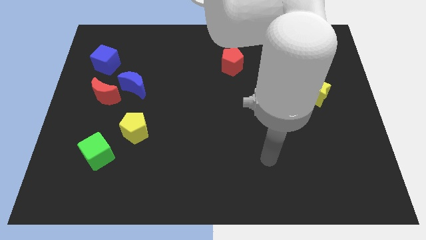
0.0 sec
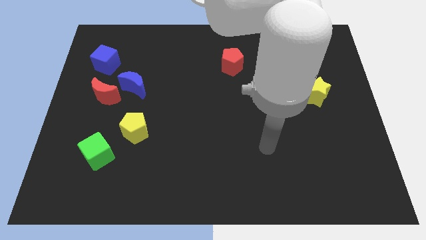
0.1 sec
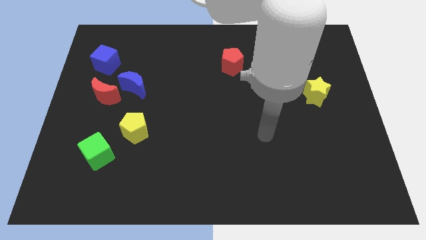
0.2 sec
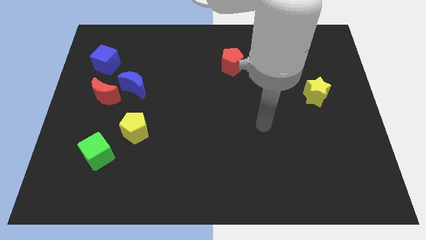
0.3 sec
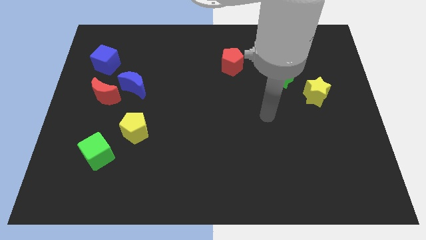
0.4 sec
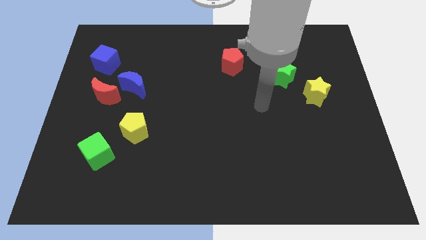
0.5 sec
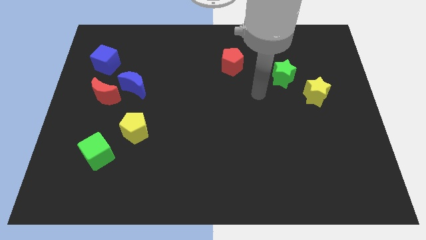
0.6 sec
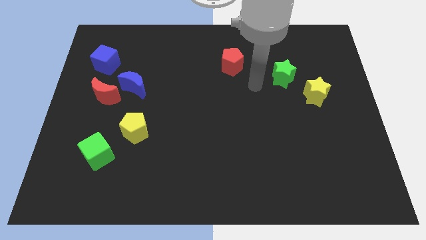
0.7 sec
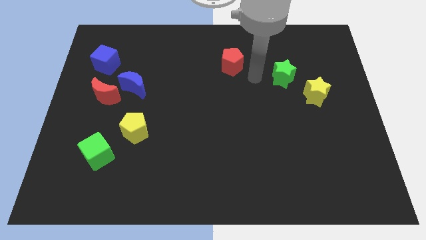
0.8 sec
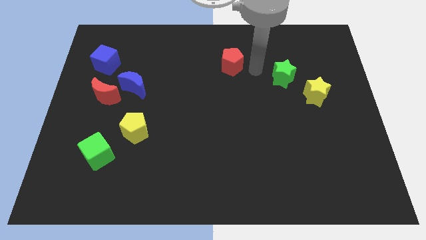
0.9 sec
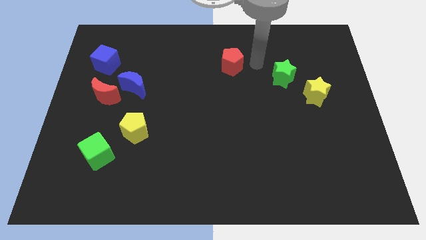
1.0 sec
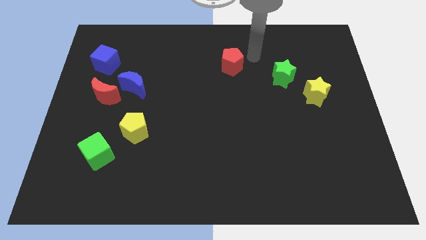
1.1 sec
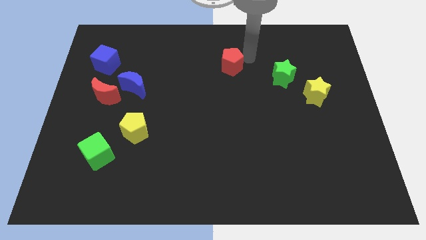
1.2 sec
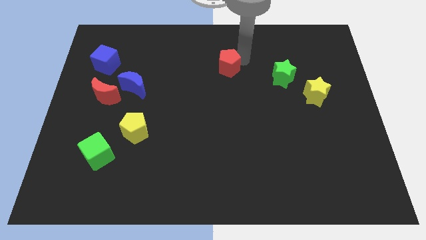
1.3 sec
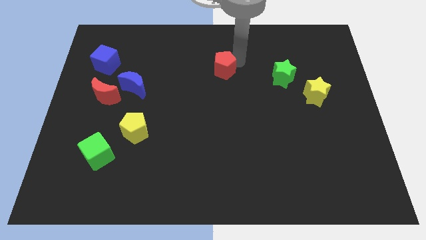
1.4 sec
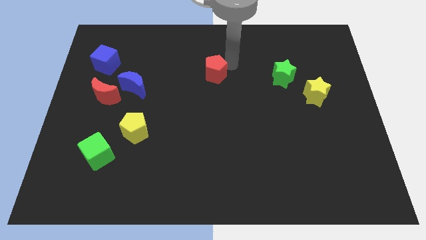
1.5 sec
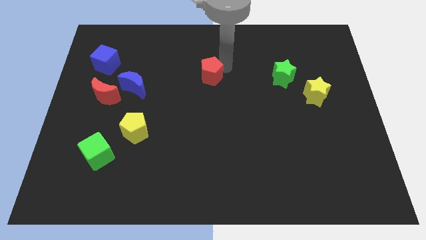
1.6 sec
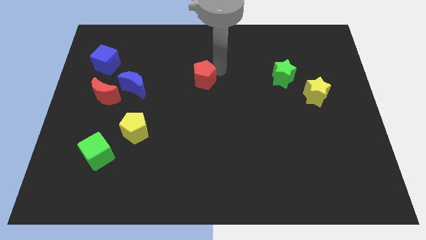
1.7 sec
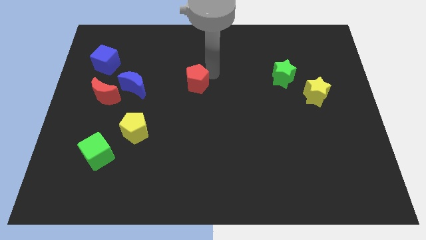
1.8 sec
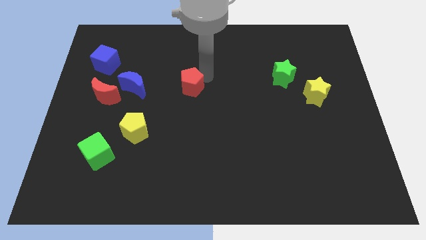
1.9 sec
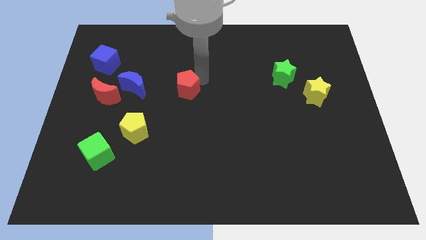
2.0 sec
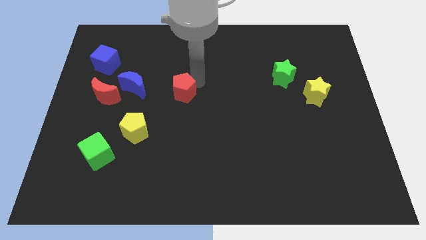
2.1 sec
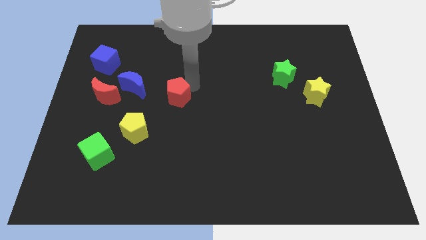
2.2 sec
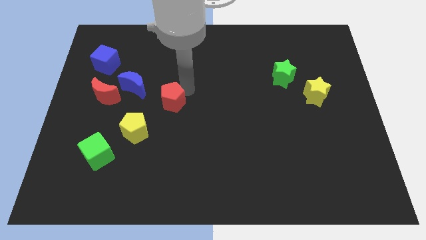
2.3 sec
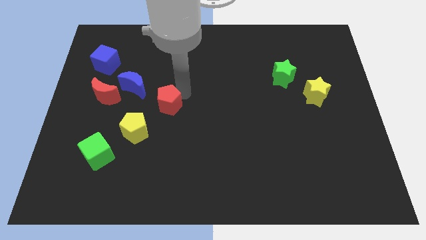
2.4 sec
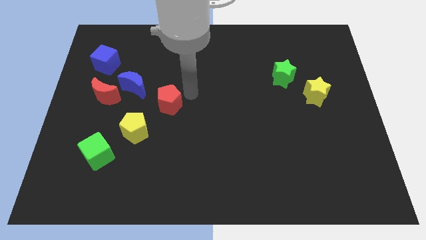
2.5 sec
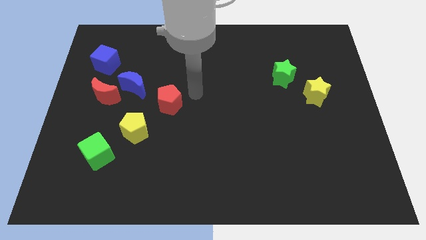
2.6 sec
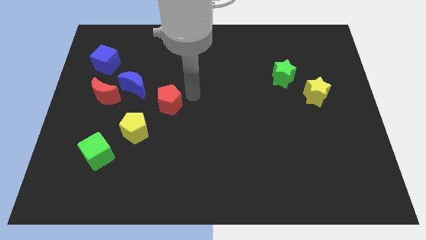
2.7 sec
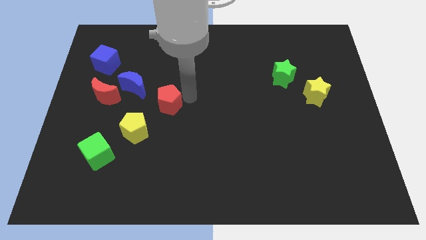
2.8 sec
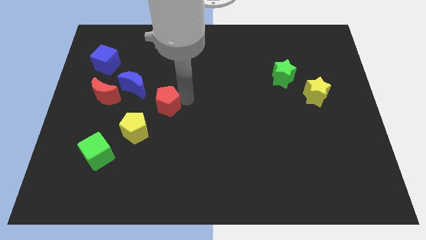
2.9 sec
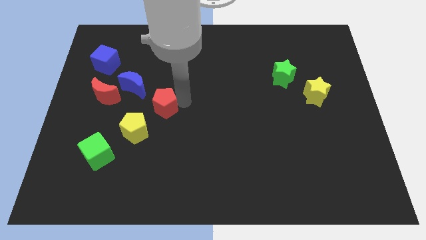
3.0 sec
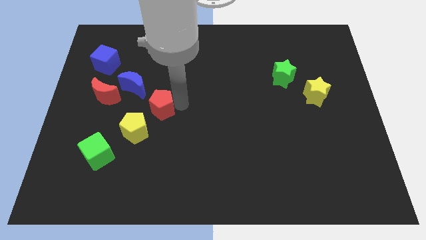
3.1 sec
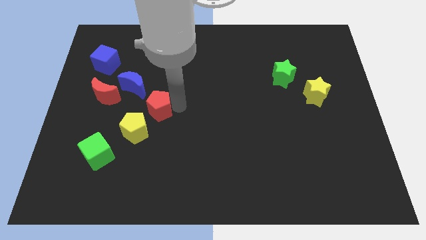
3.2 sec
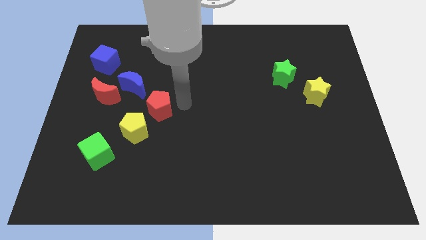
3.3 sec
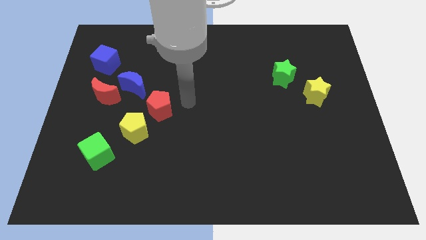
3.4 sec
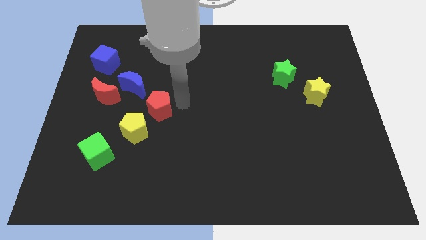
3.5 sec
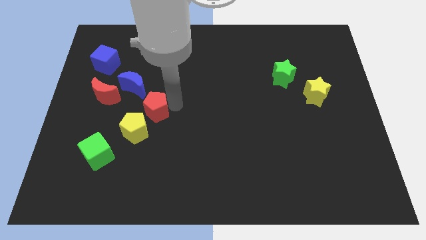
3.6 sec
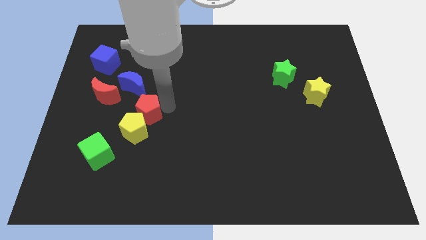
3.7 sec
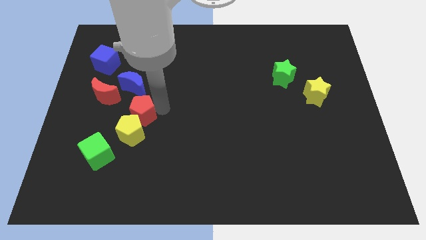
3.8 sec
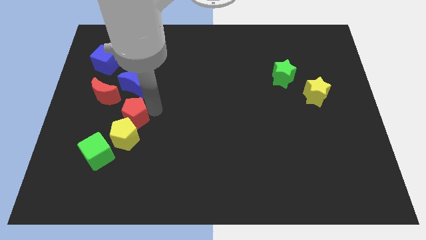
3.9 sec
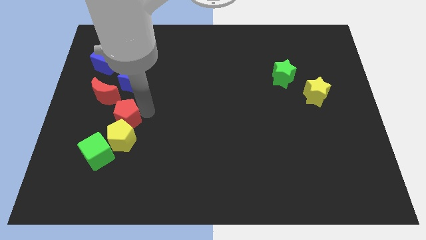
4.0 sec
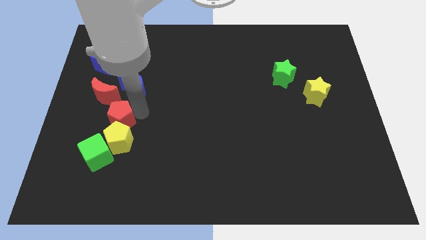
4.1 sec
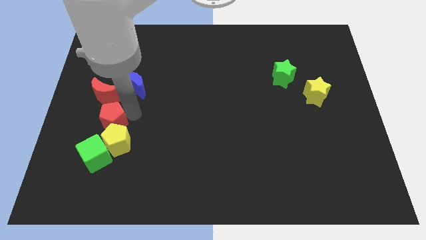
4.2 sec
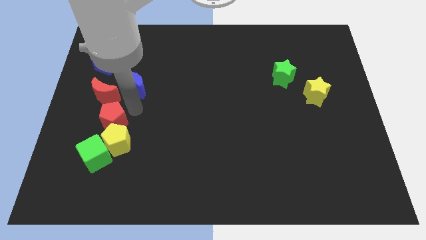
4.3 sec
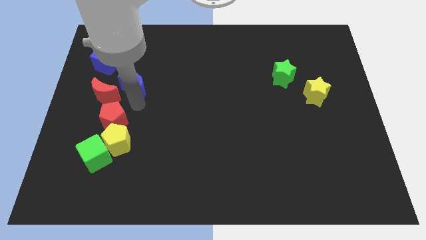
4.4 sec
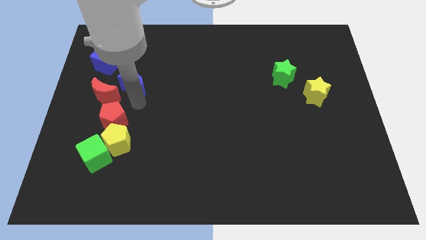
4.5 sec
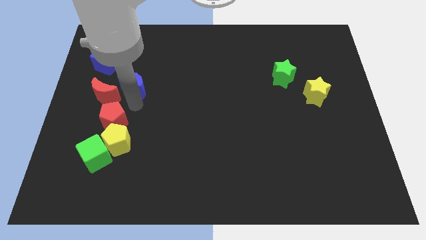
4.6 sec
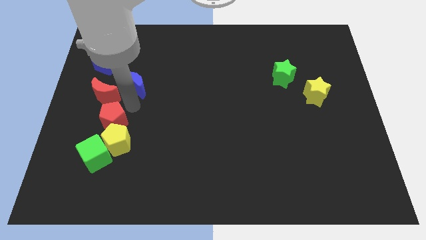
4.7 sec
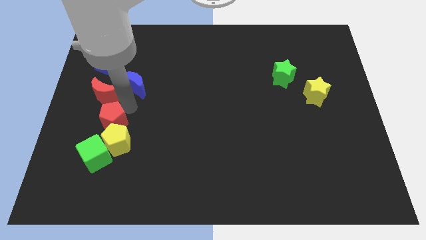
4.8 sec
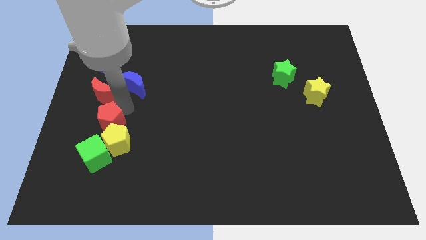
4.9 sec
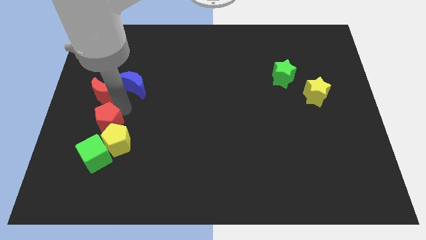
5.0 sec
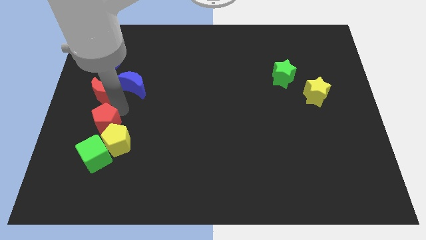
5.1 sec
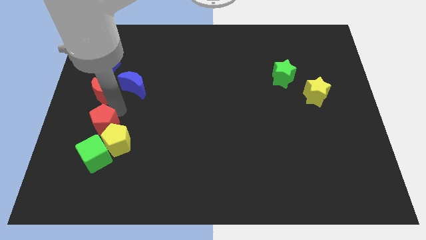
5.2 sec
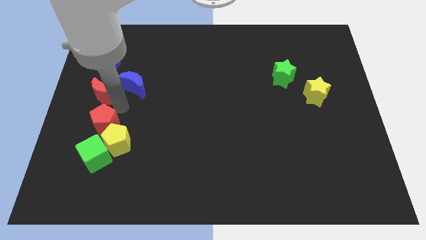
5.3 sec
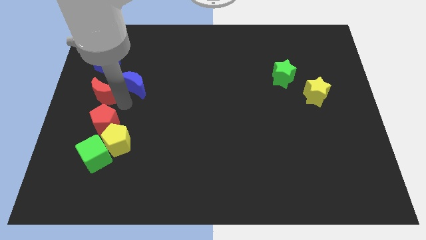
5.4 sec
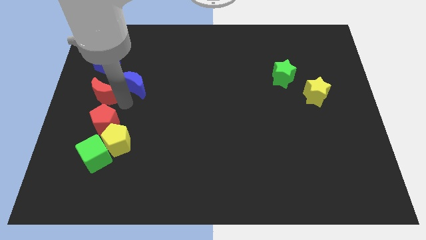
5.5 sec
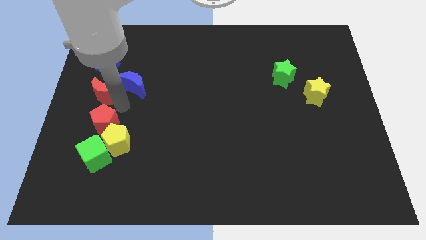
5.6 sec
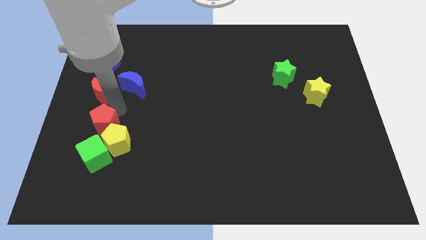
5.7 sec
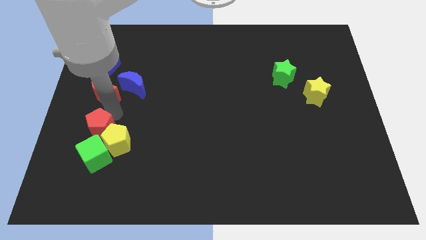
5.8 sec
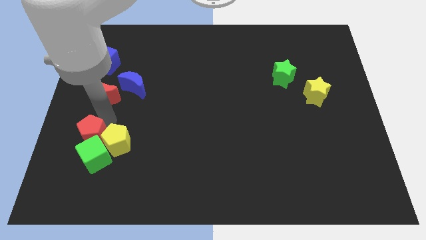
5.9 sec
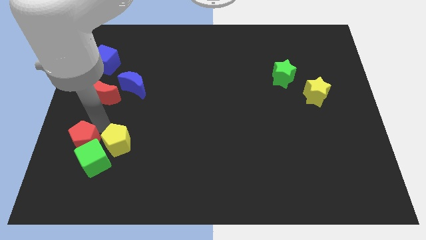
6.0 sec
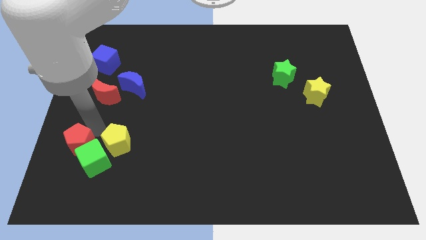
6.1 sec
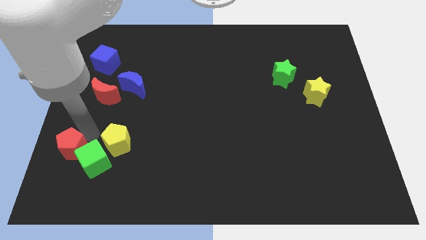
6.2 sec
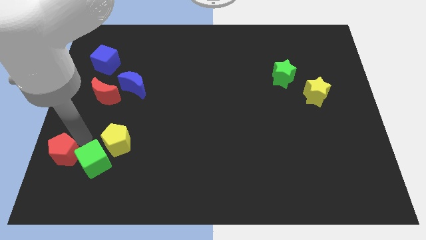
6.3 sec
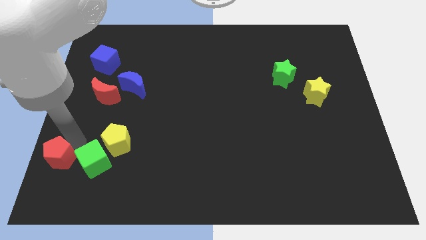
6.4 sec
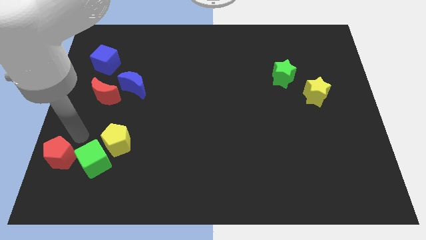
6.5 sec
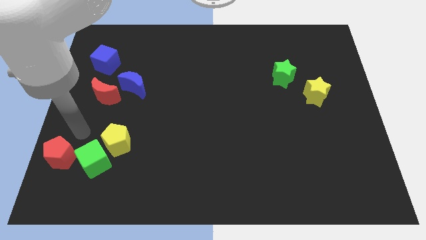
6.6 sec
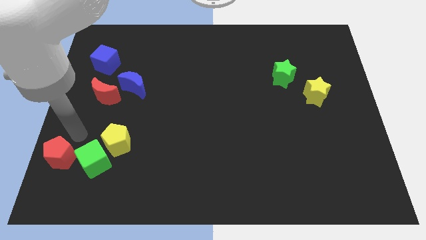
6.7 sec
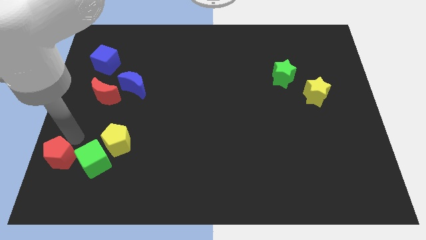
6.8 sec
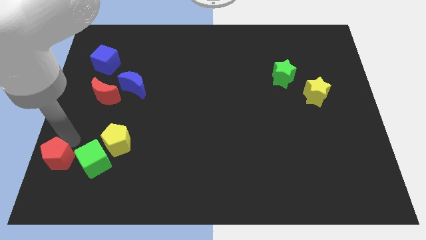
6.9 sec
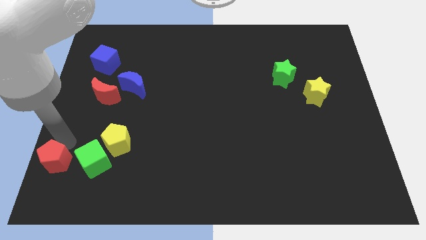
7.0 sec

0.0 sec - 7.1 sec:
move the red pentagon to the bottom left
